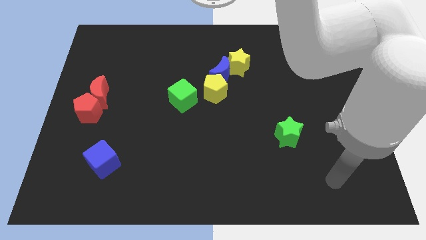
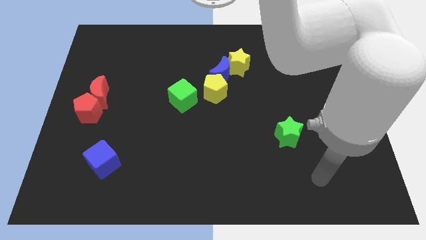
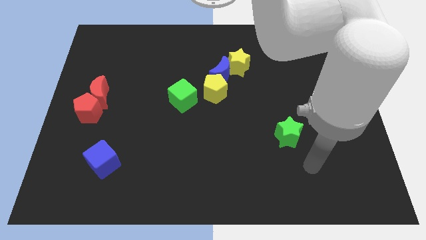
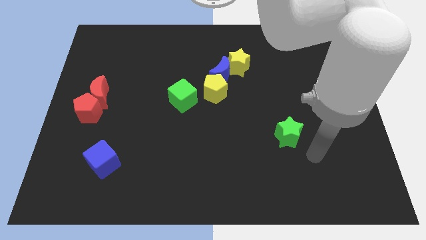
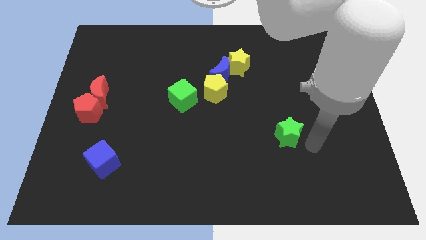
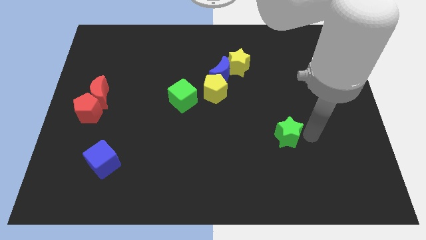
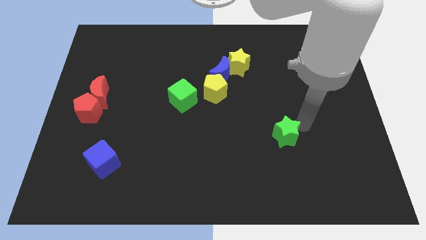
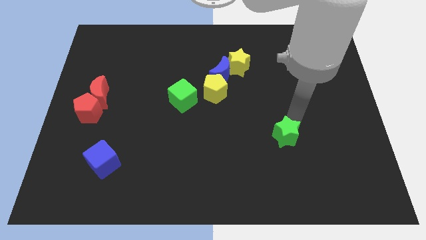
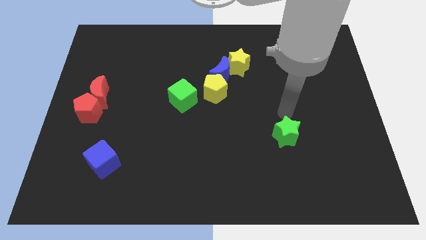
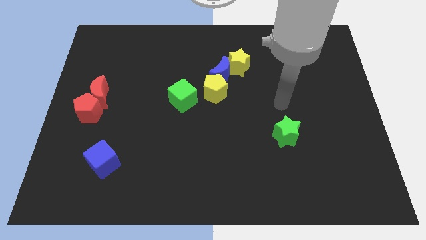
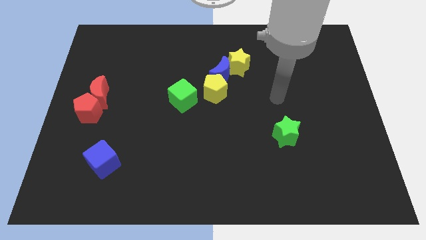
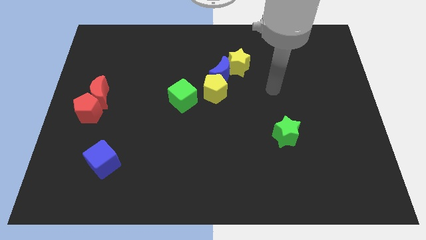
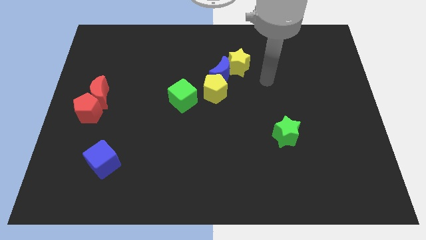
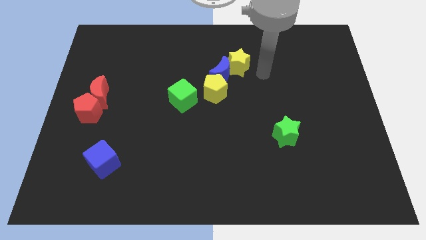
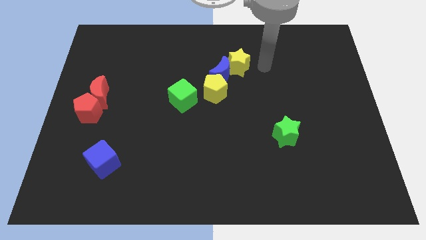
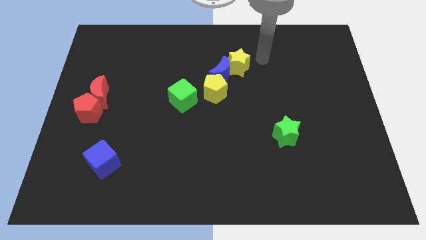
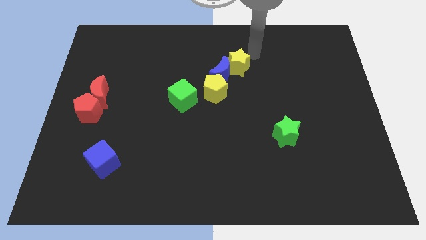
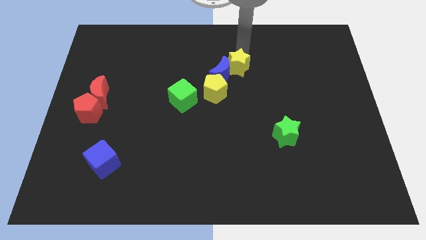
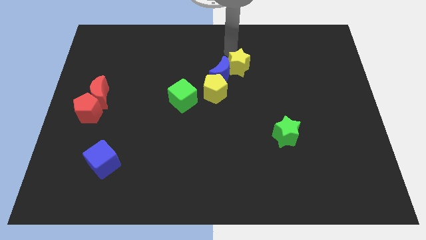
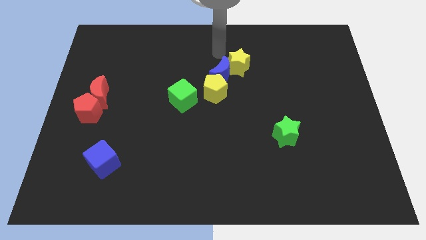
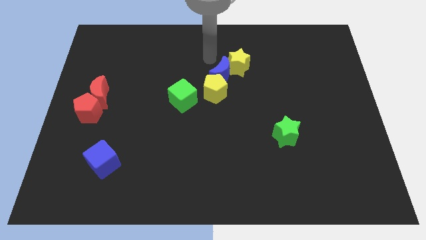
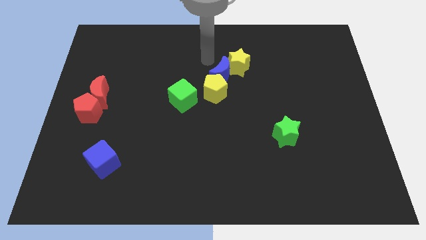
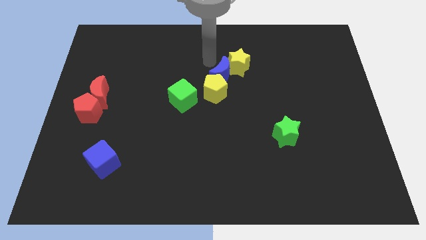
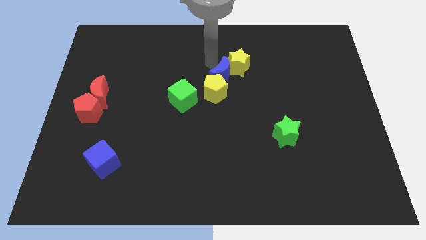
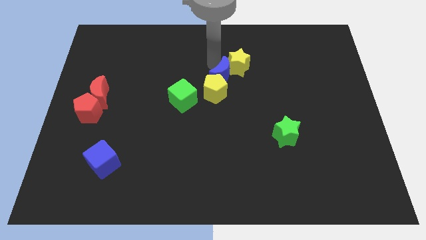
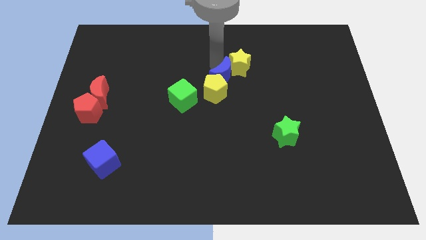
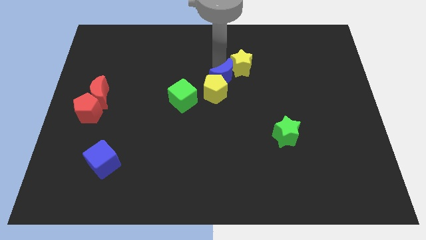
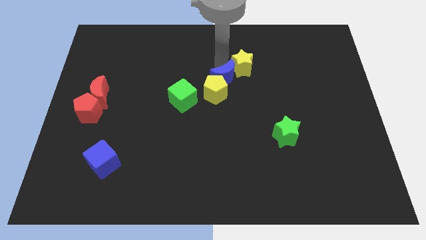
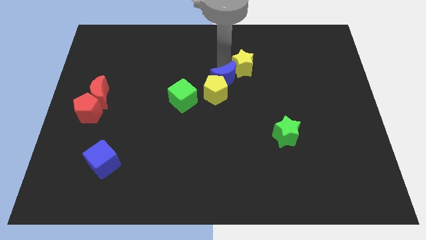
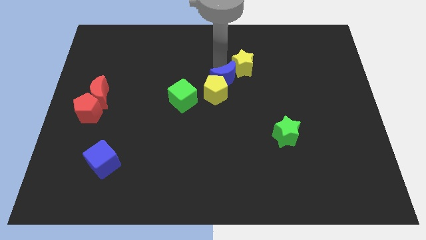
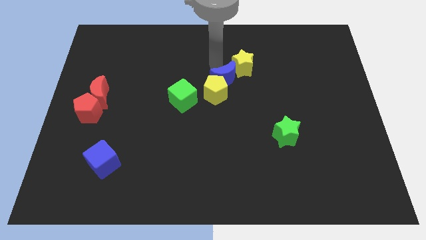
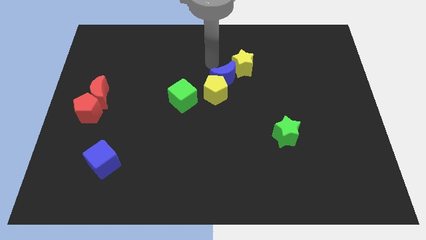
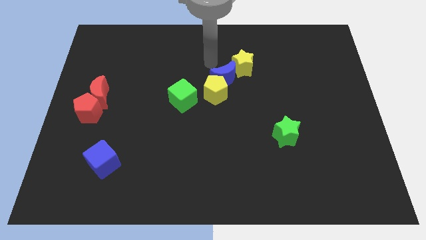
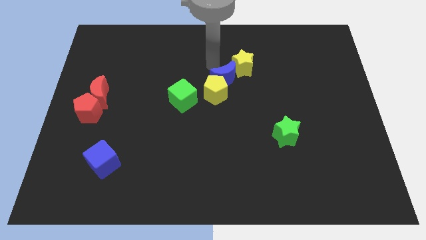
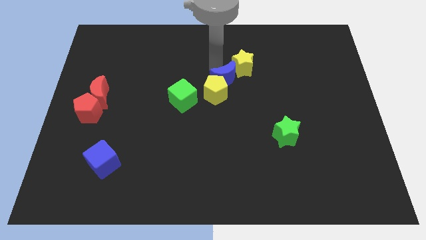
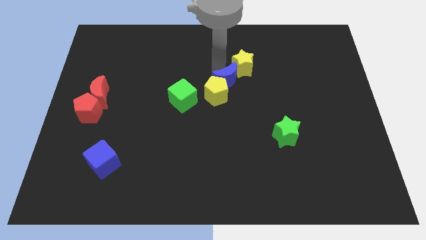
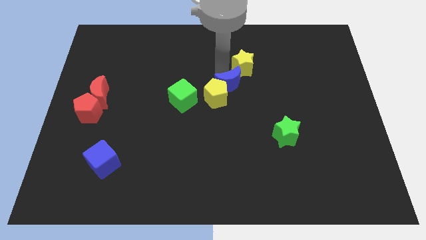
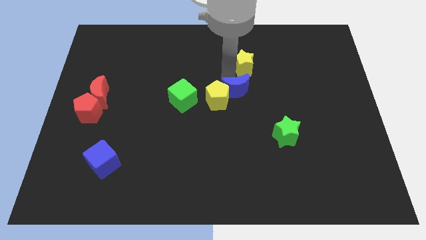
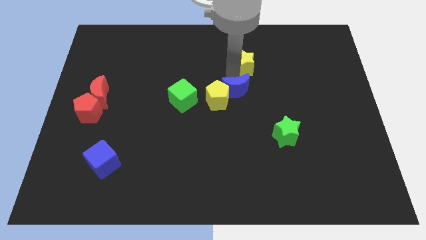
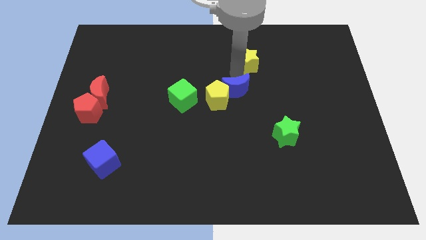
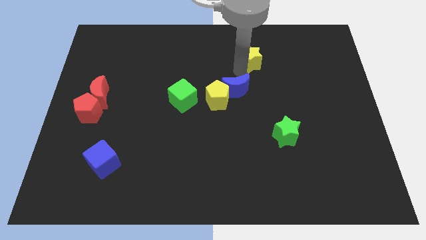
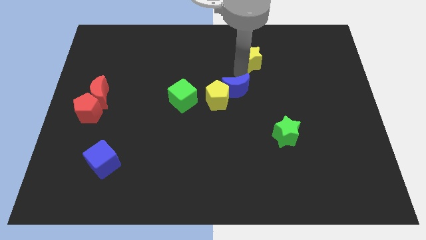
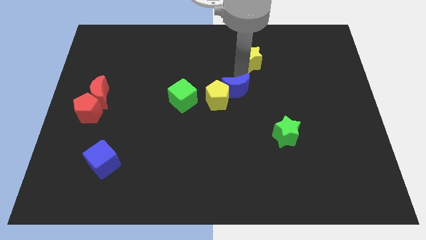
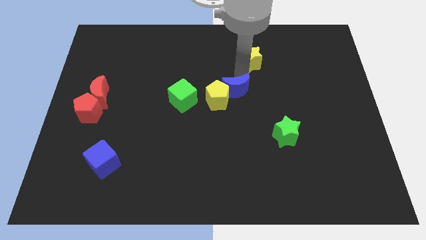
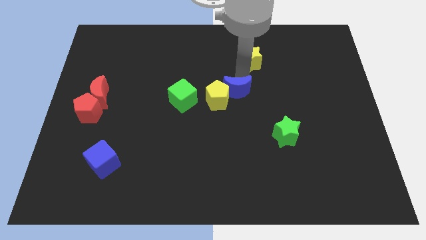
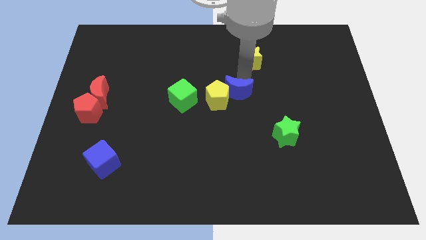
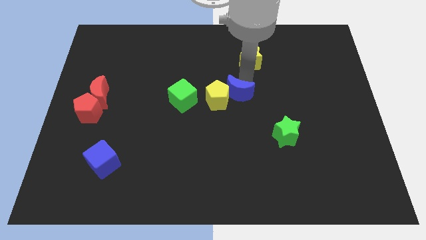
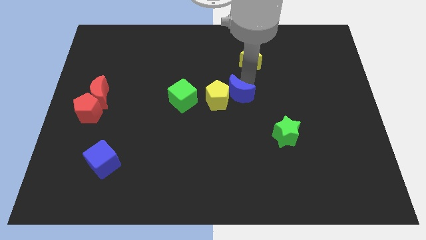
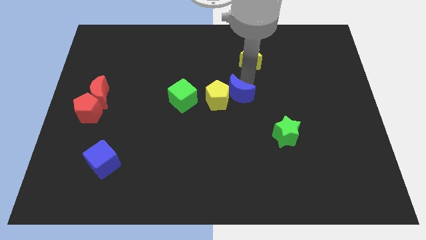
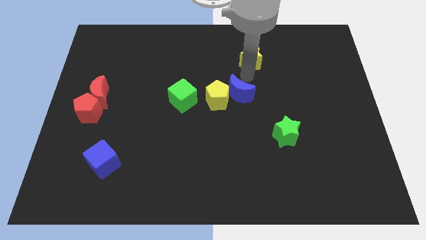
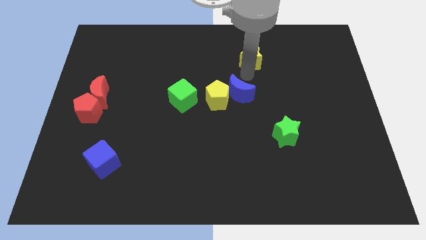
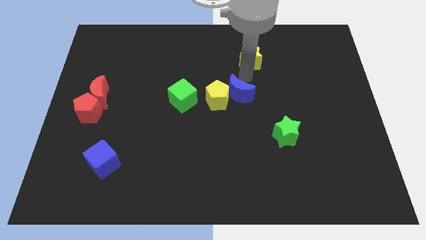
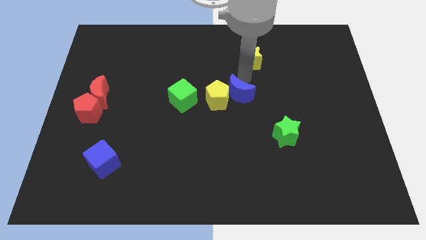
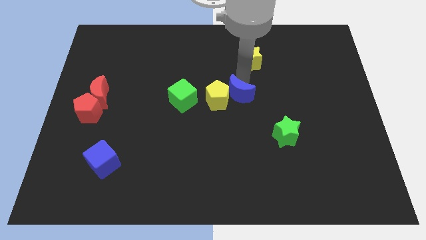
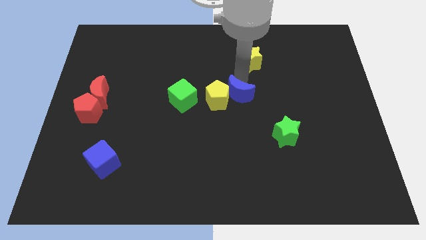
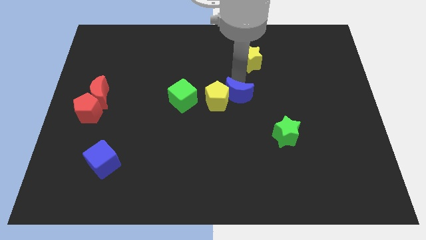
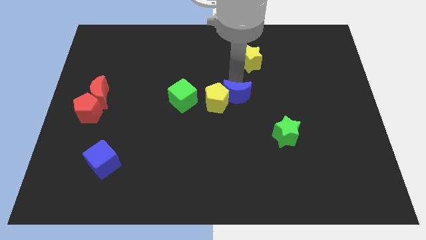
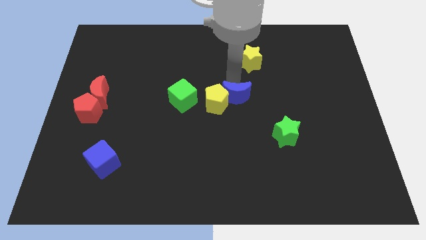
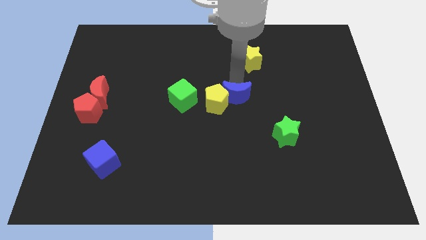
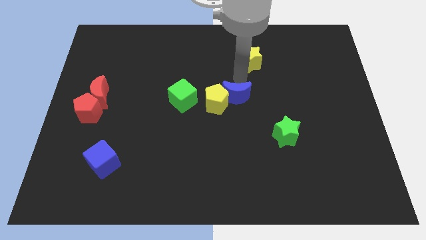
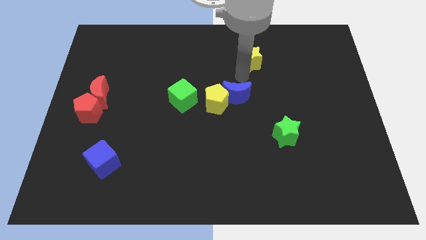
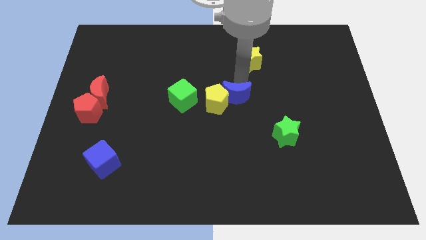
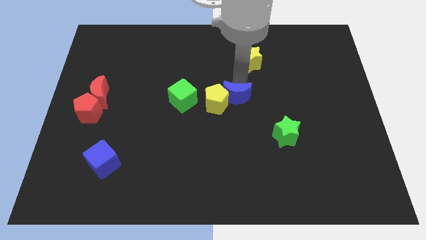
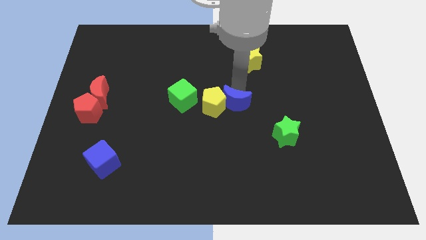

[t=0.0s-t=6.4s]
slightly slide the blue moon downwards

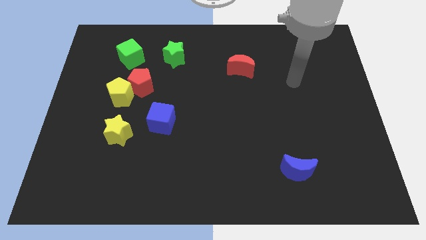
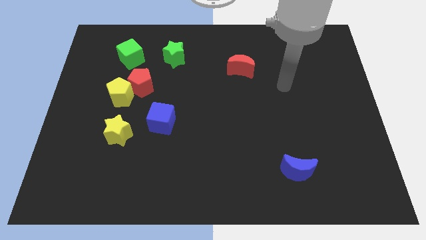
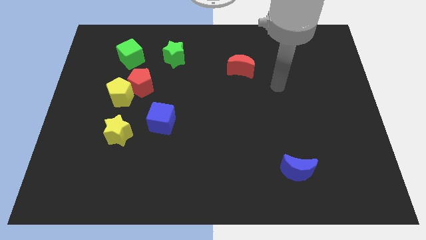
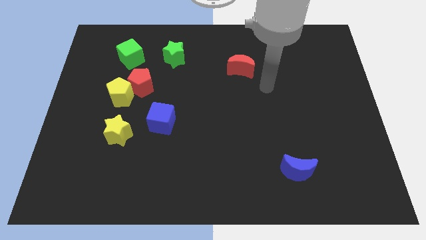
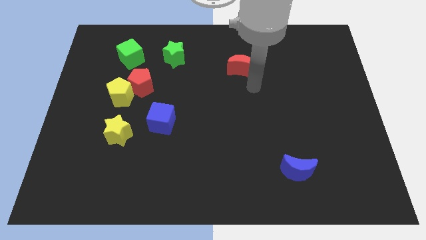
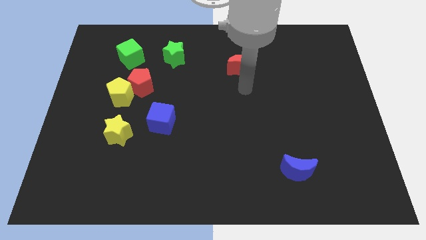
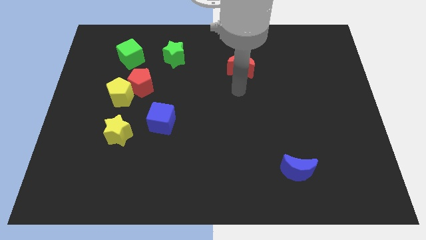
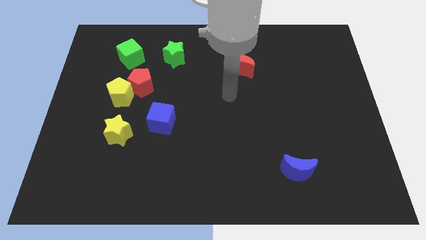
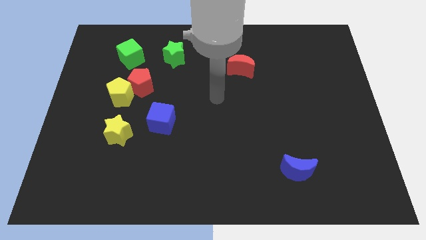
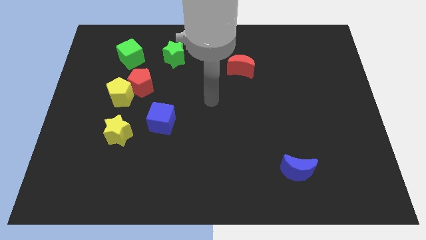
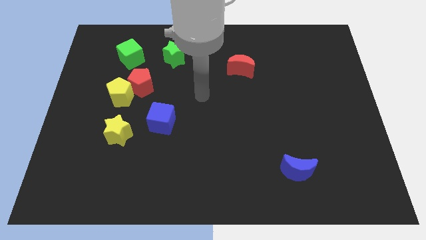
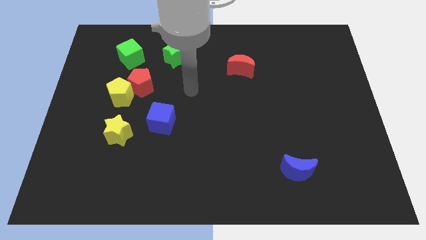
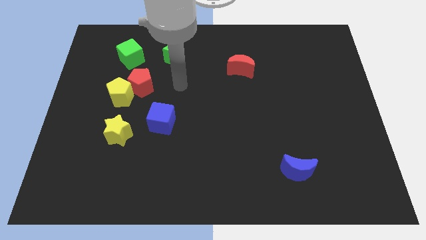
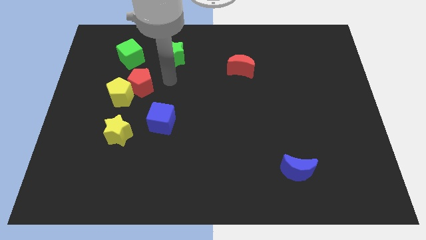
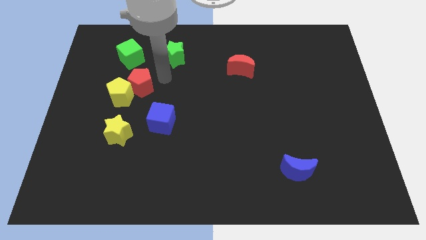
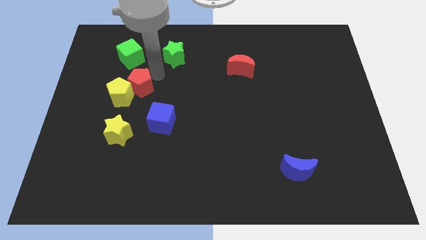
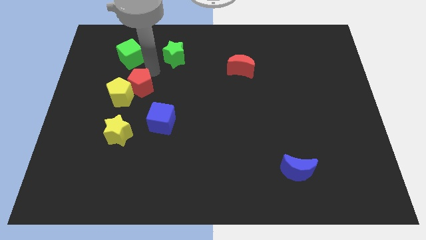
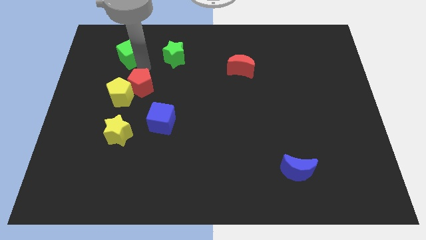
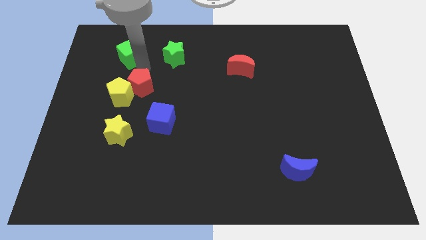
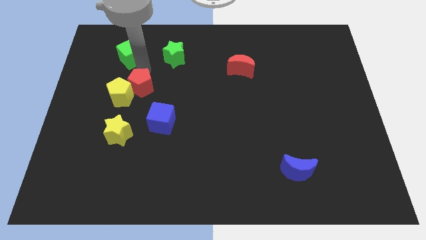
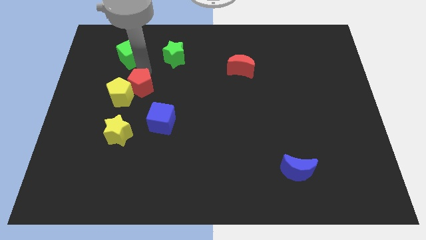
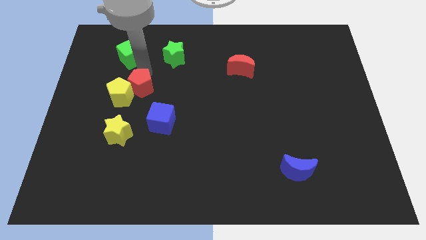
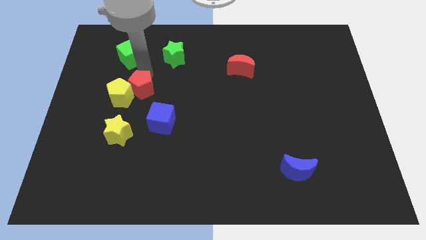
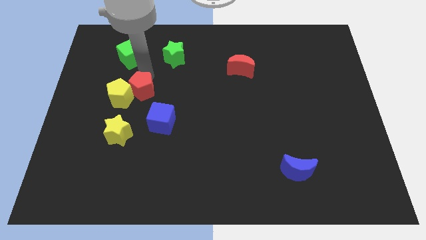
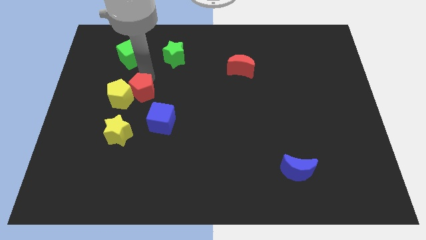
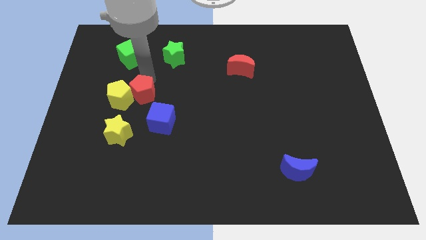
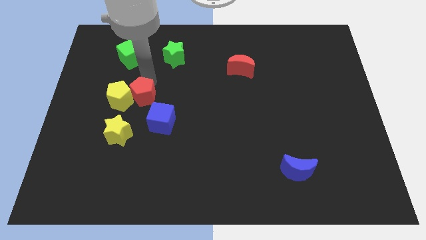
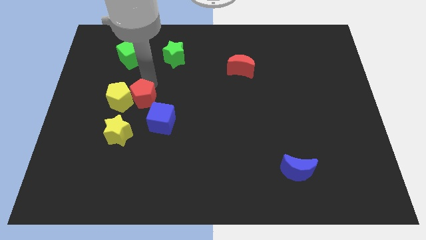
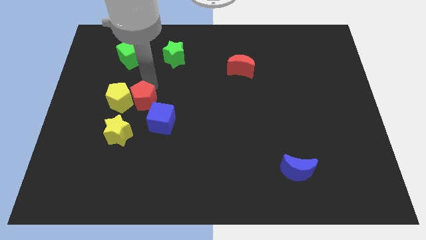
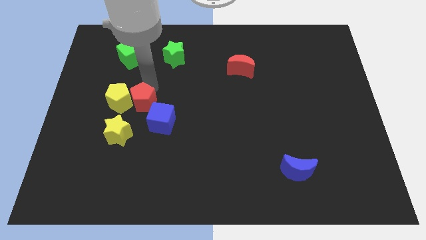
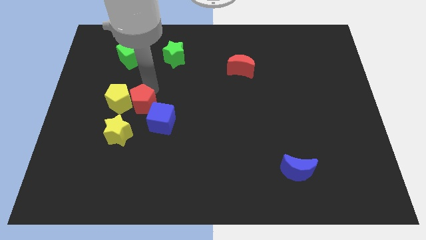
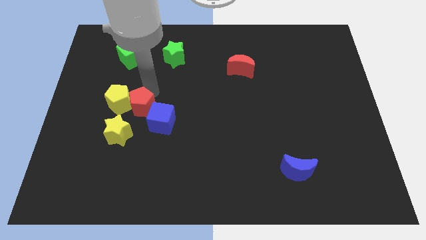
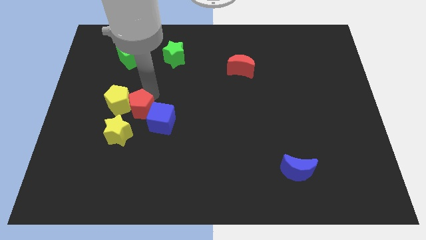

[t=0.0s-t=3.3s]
push the red pentagon slightly downwards
